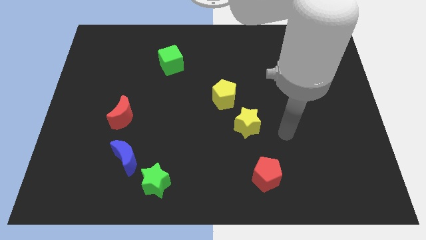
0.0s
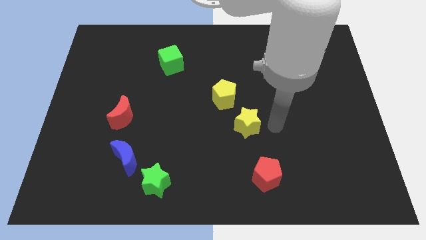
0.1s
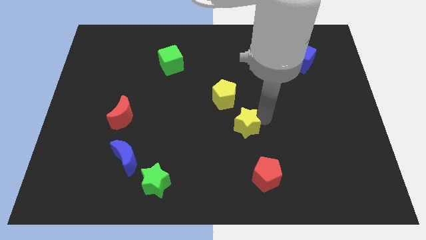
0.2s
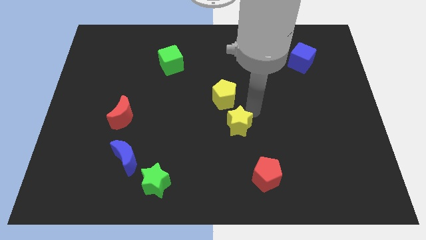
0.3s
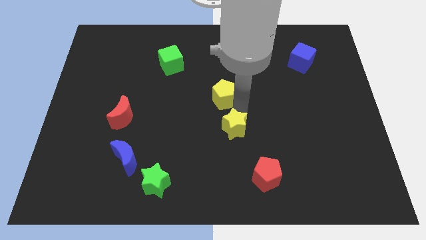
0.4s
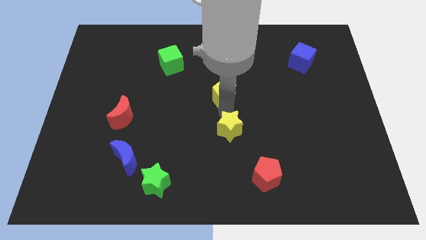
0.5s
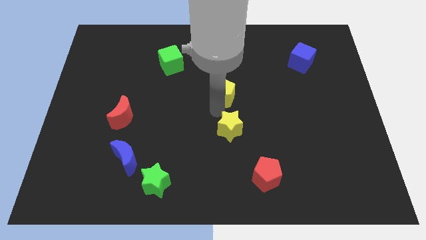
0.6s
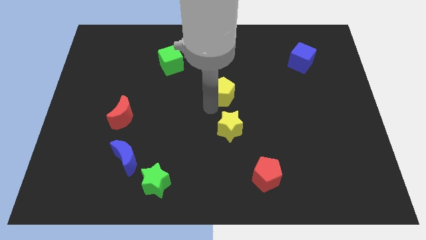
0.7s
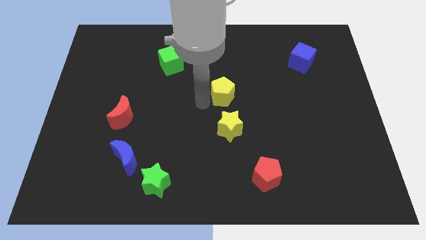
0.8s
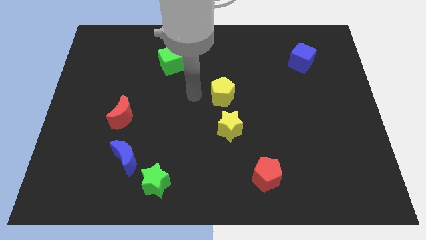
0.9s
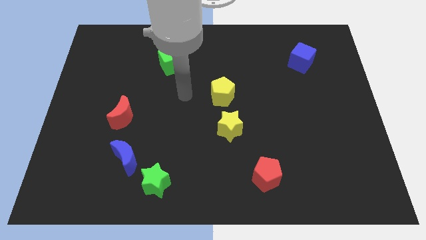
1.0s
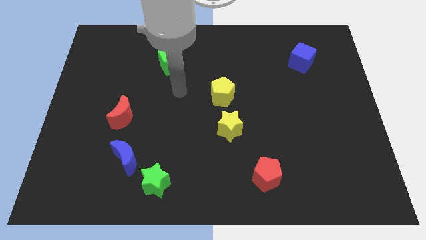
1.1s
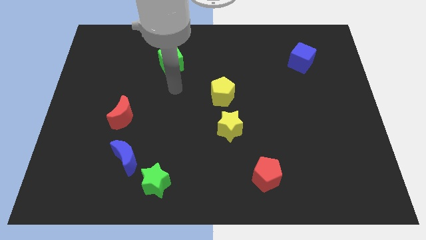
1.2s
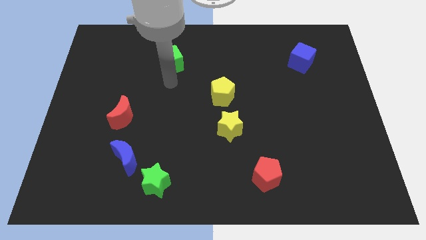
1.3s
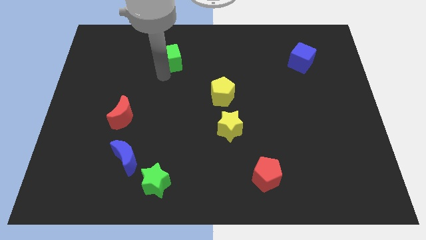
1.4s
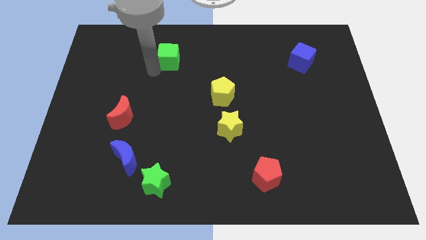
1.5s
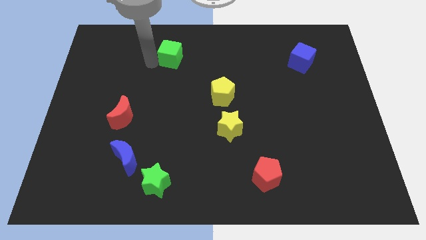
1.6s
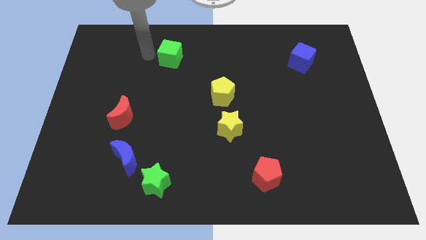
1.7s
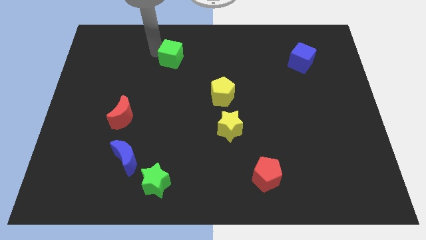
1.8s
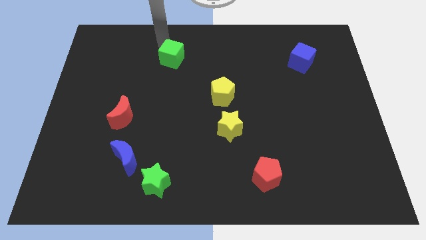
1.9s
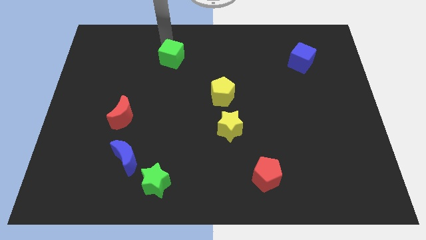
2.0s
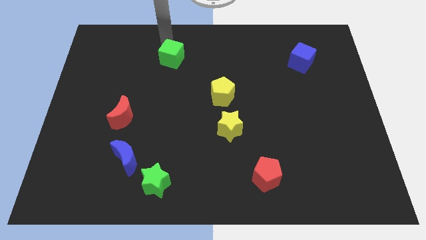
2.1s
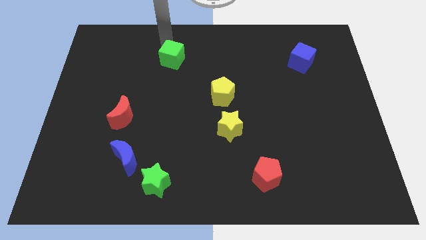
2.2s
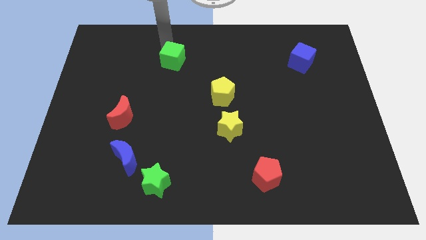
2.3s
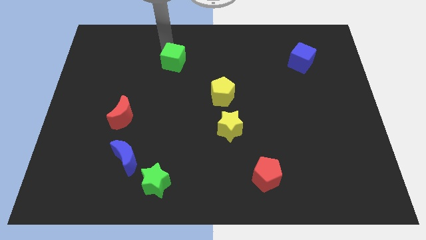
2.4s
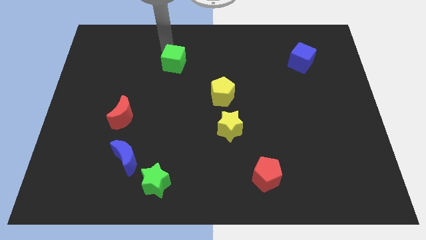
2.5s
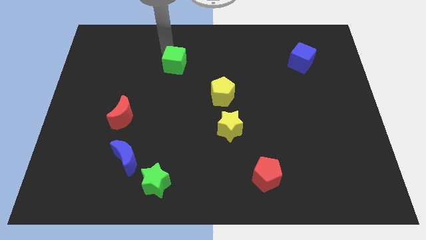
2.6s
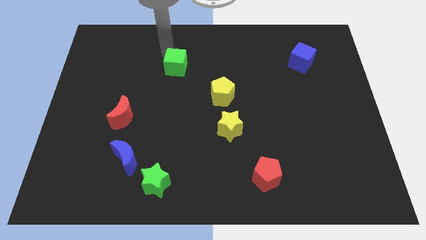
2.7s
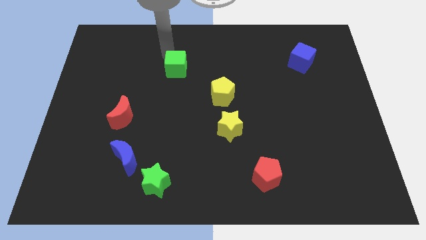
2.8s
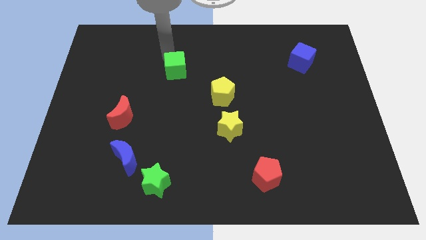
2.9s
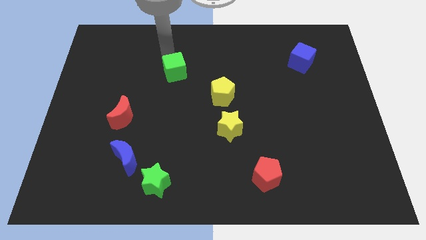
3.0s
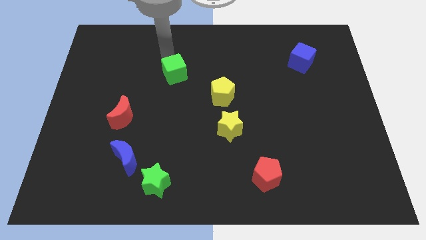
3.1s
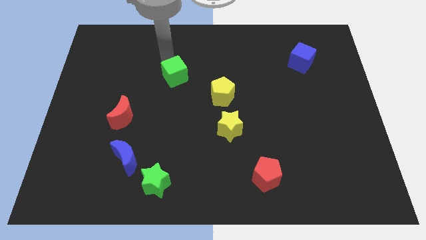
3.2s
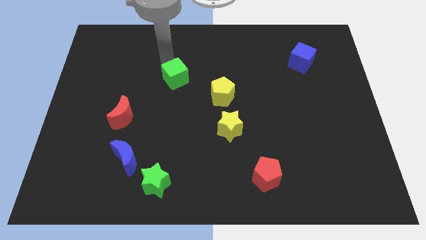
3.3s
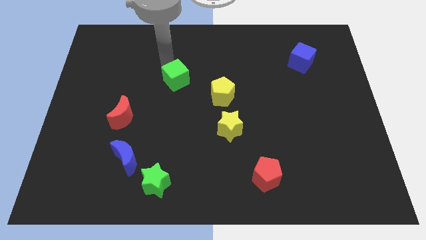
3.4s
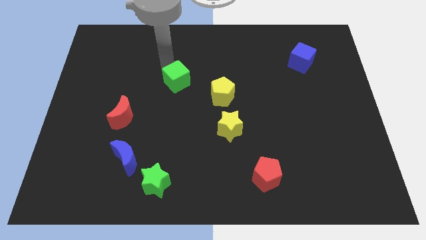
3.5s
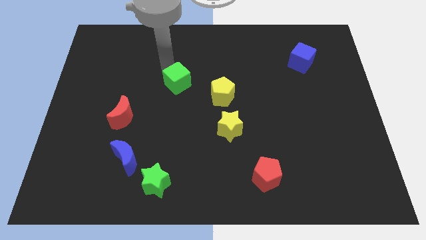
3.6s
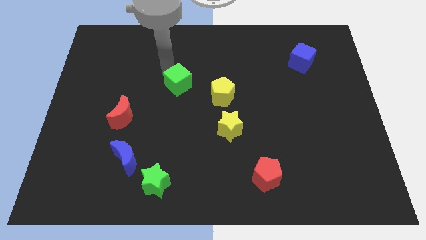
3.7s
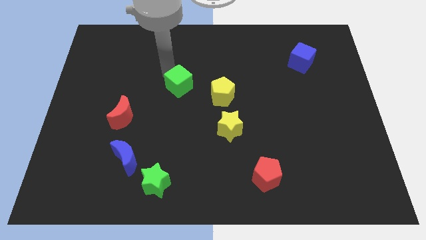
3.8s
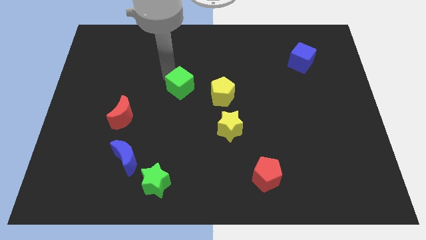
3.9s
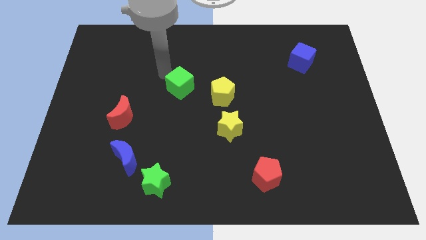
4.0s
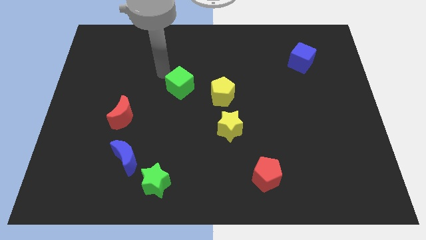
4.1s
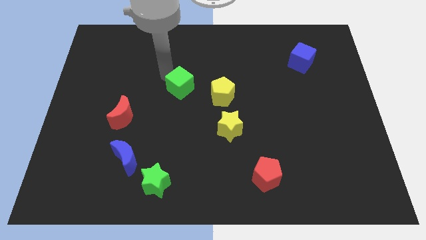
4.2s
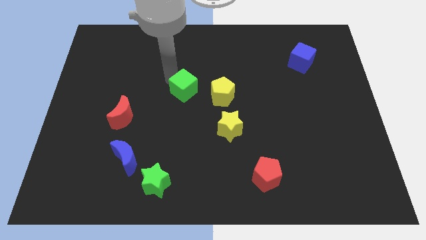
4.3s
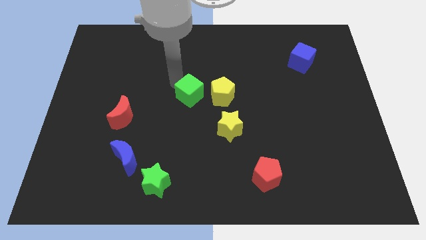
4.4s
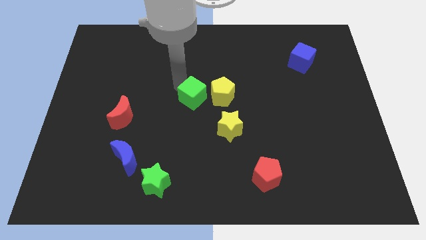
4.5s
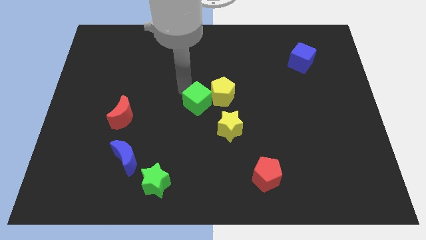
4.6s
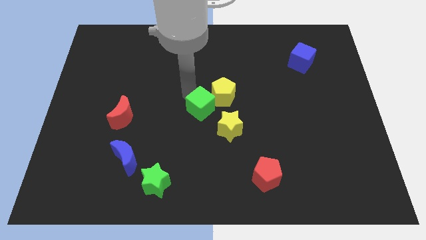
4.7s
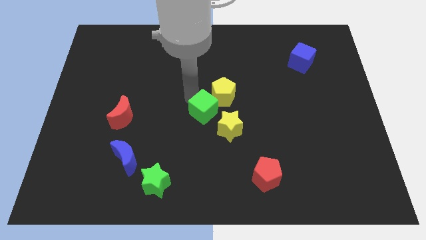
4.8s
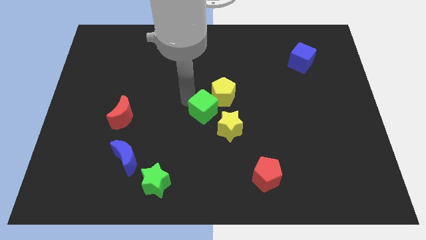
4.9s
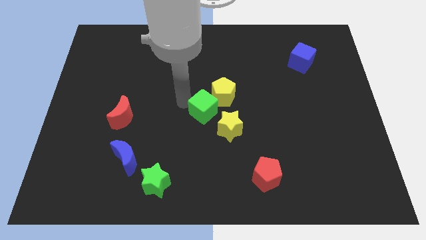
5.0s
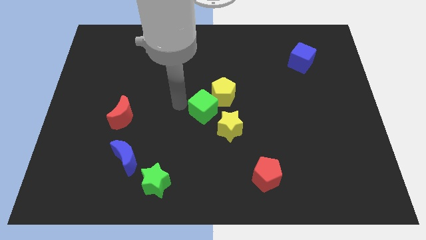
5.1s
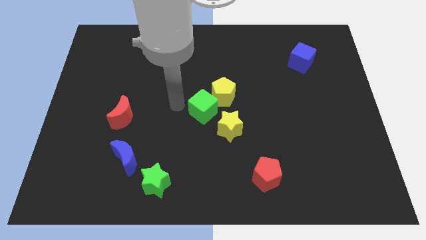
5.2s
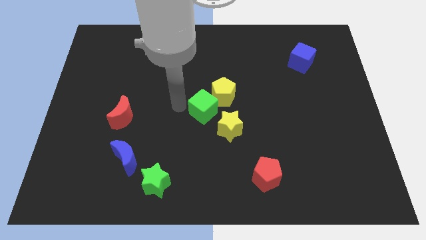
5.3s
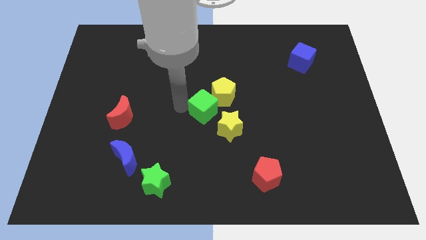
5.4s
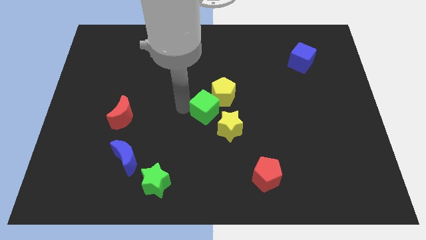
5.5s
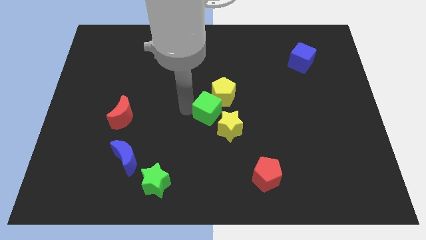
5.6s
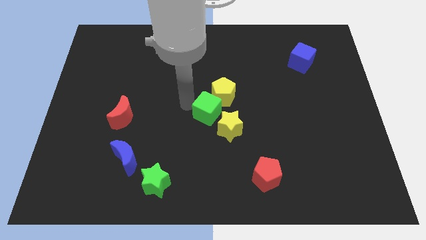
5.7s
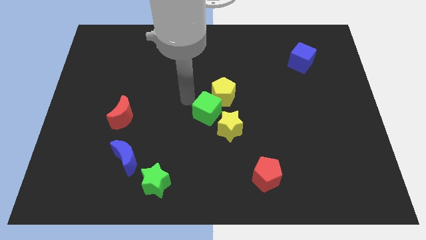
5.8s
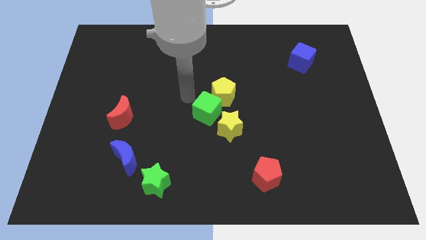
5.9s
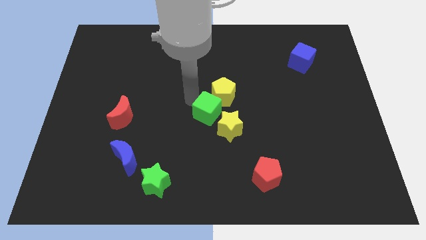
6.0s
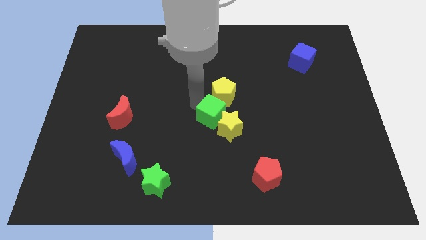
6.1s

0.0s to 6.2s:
move the green cube to the yellow star

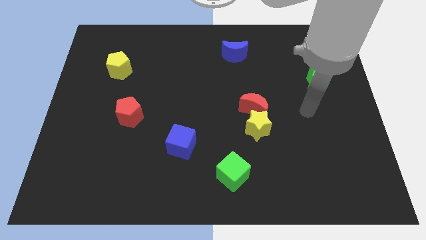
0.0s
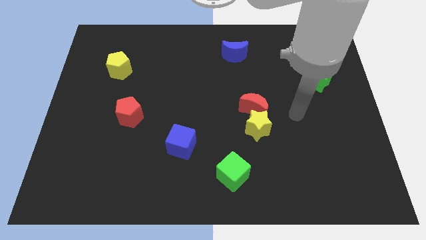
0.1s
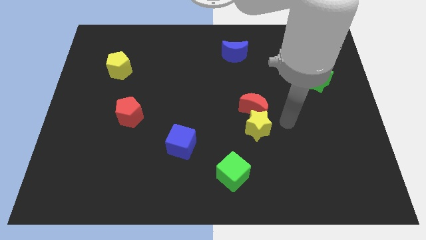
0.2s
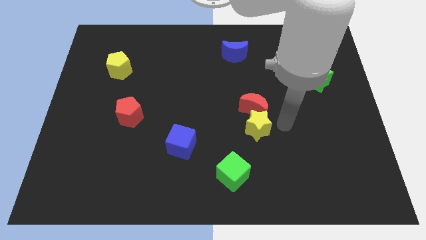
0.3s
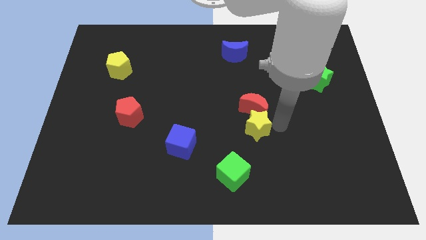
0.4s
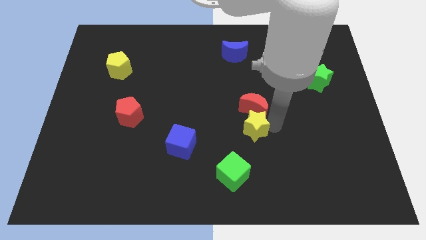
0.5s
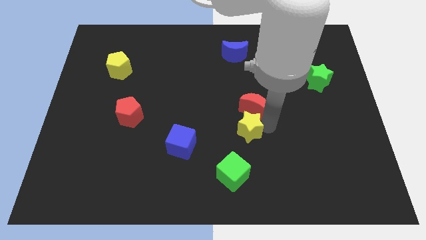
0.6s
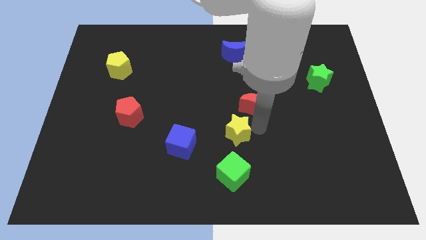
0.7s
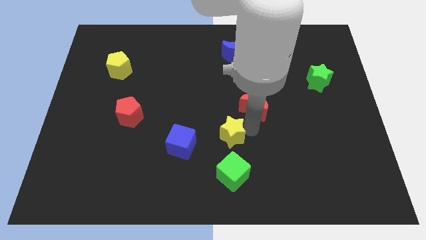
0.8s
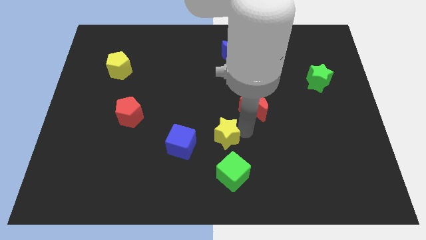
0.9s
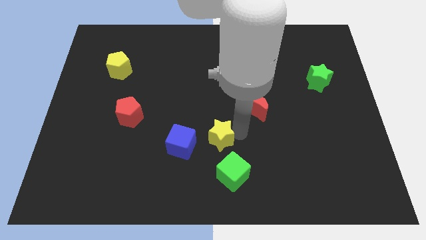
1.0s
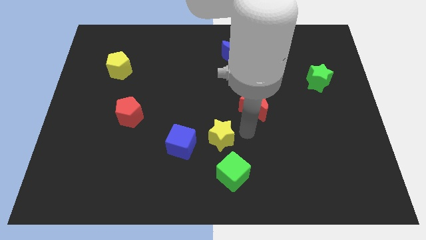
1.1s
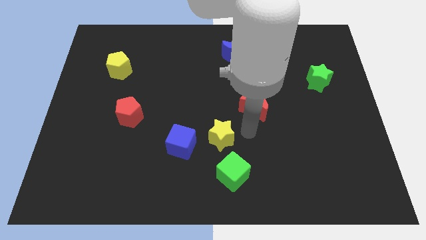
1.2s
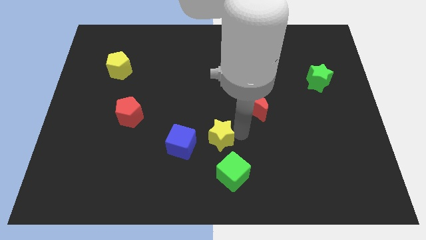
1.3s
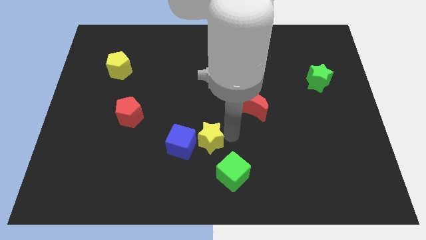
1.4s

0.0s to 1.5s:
move the yellow star towards the blue cube
